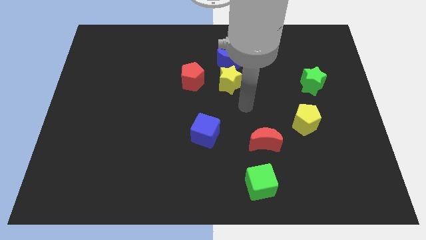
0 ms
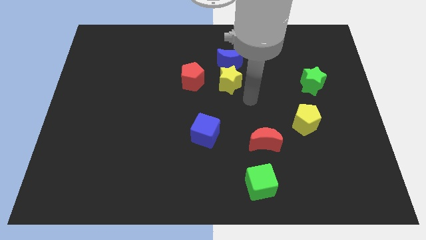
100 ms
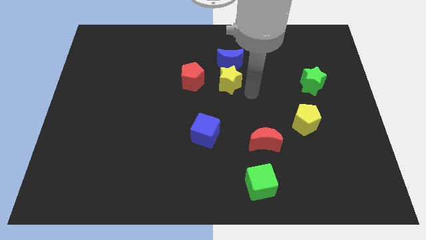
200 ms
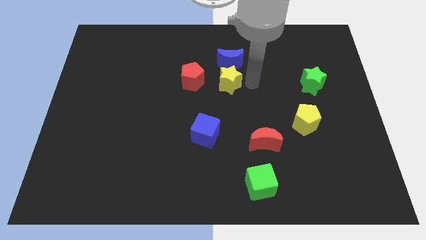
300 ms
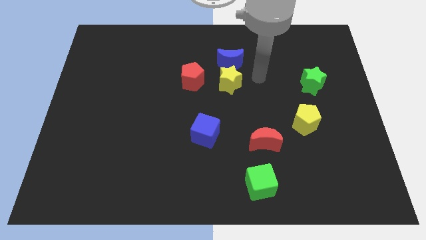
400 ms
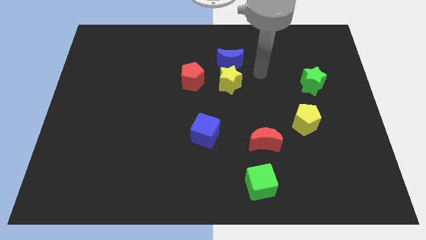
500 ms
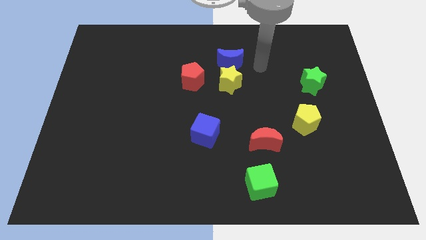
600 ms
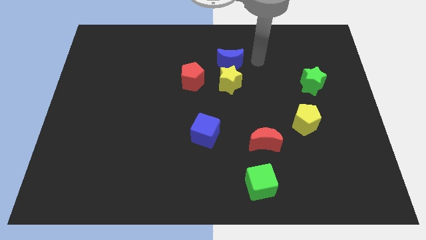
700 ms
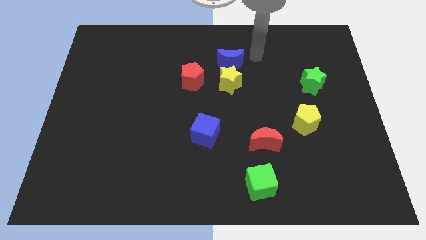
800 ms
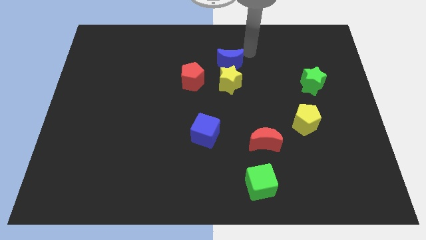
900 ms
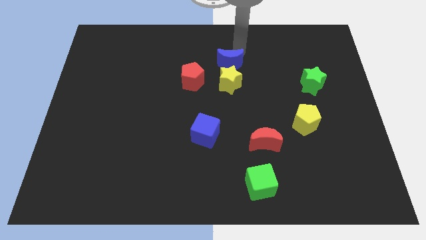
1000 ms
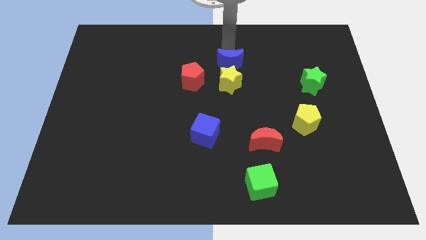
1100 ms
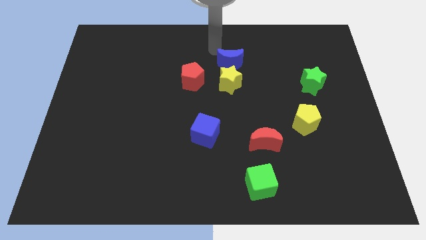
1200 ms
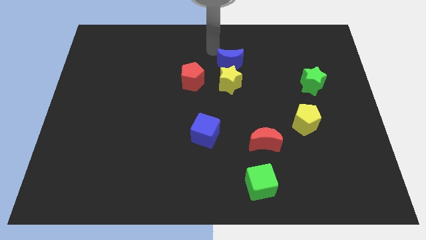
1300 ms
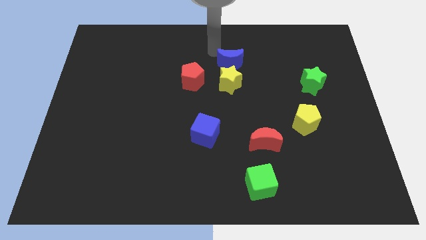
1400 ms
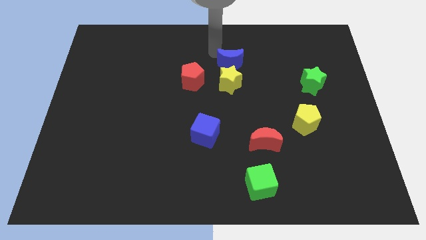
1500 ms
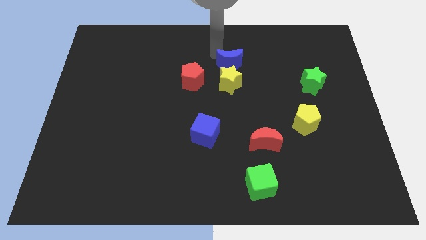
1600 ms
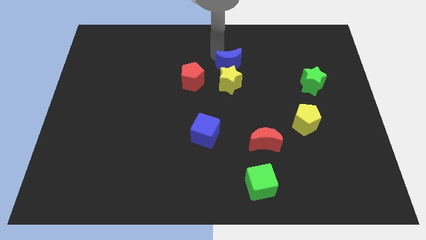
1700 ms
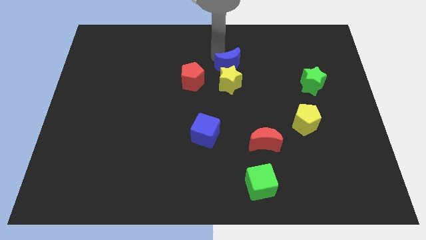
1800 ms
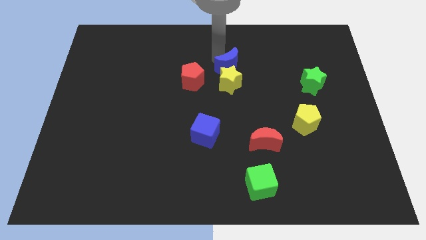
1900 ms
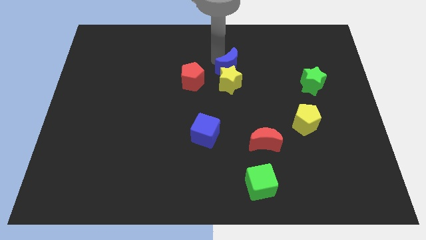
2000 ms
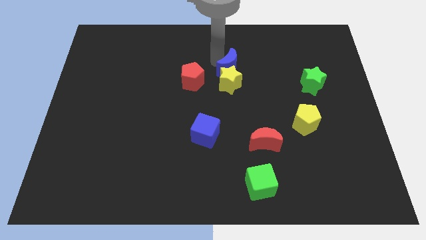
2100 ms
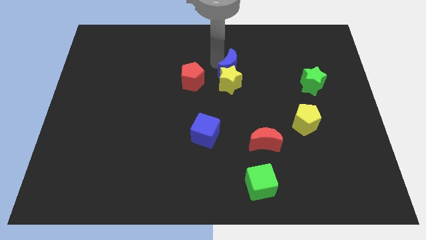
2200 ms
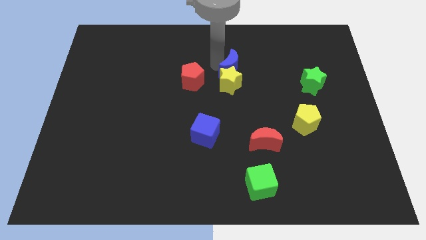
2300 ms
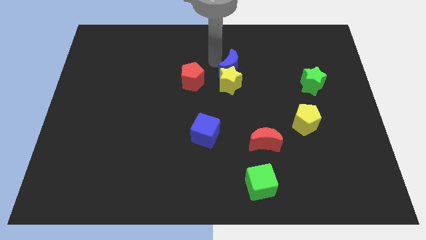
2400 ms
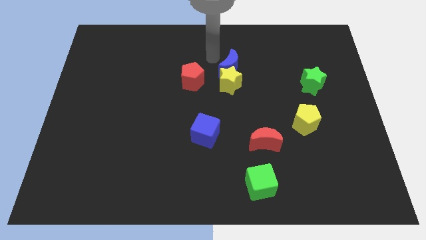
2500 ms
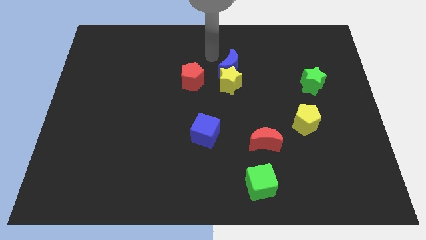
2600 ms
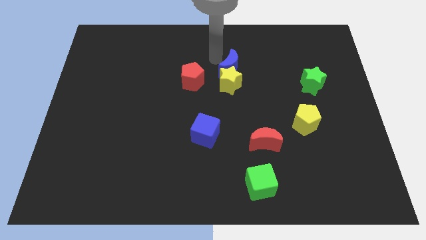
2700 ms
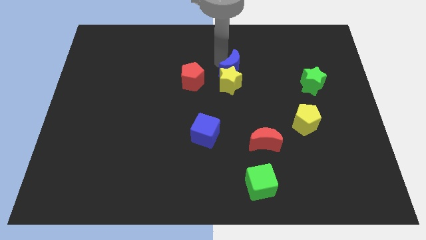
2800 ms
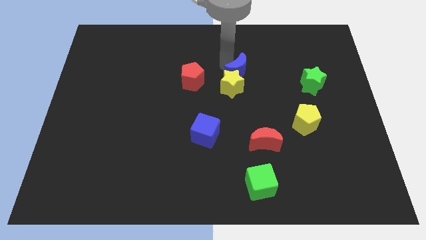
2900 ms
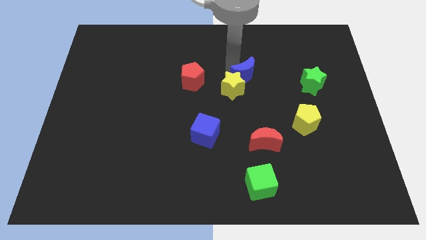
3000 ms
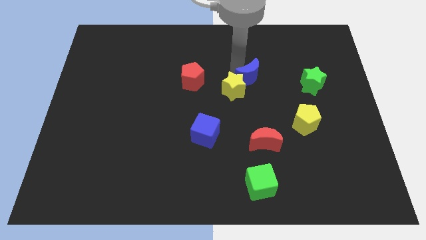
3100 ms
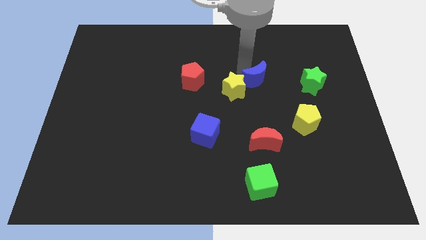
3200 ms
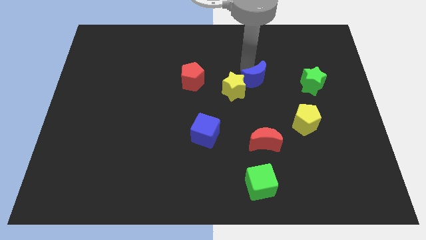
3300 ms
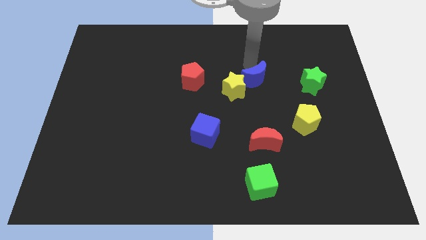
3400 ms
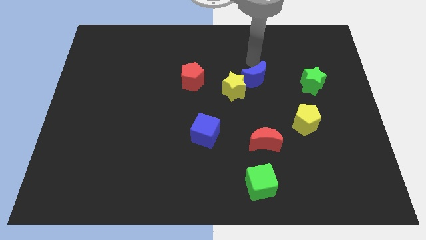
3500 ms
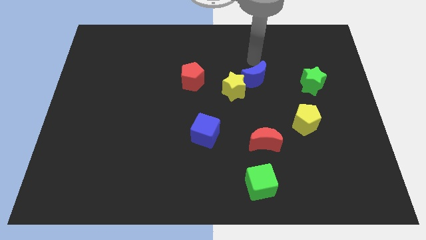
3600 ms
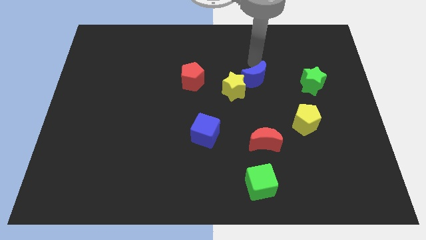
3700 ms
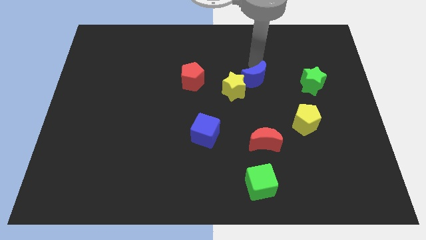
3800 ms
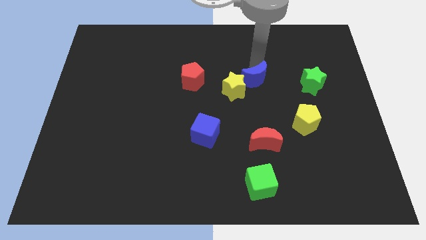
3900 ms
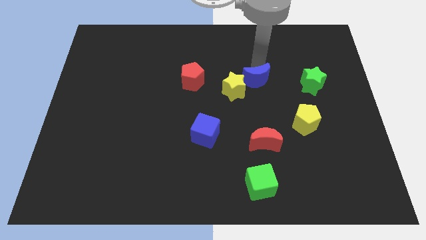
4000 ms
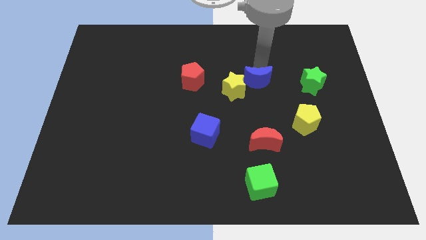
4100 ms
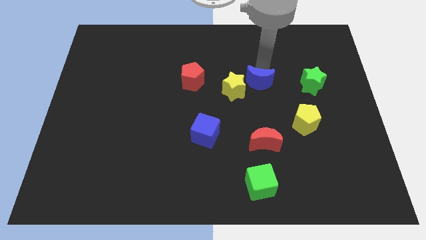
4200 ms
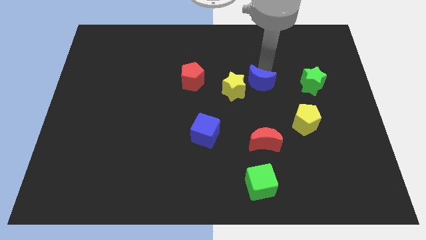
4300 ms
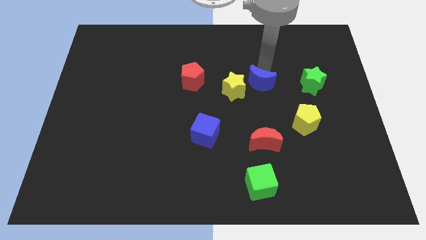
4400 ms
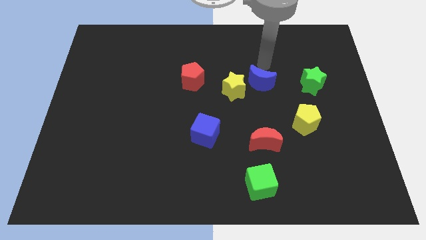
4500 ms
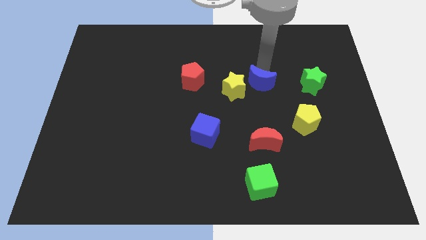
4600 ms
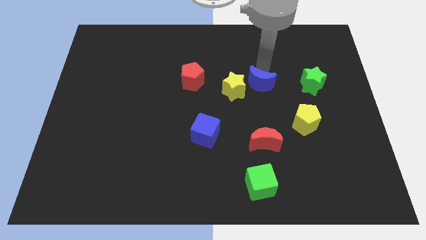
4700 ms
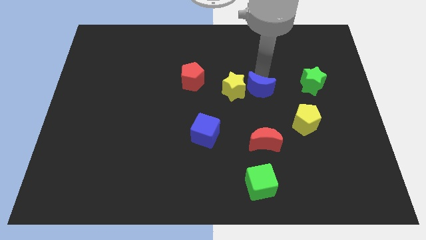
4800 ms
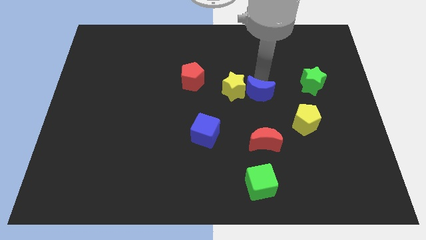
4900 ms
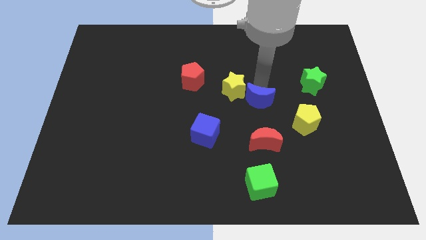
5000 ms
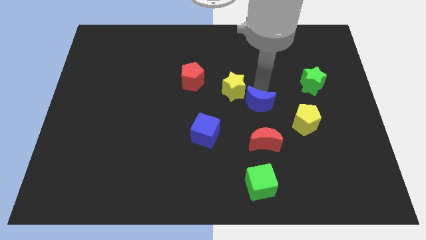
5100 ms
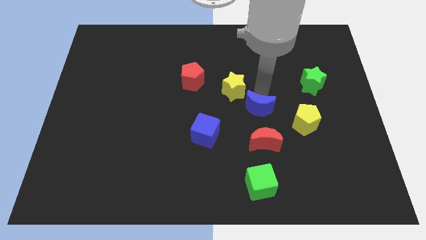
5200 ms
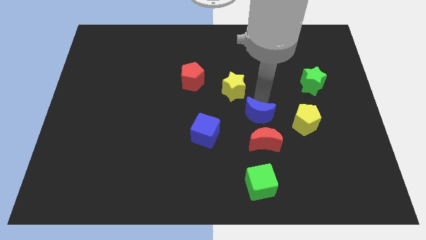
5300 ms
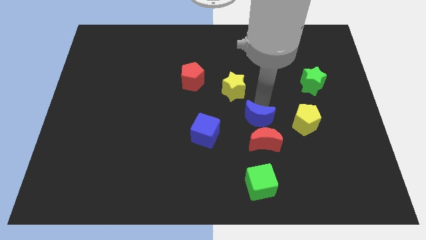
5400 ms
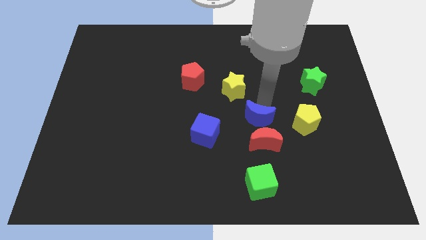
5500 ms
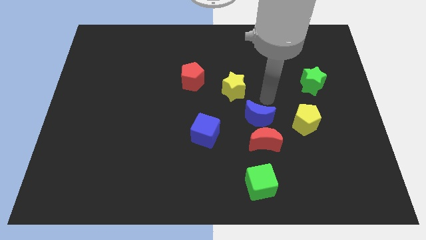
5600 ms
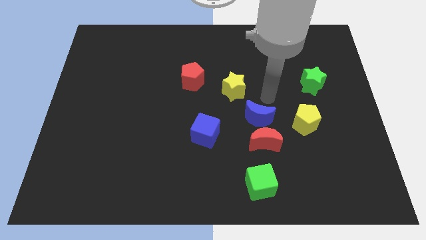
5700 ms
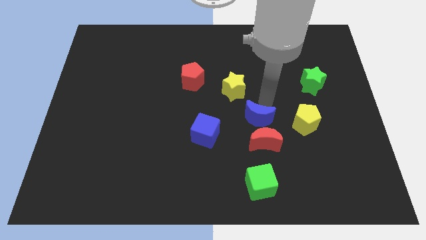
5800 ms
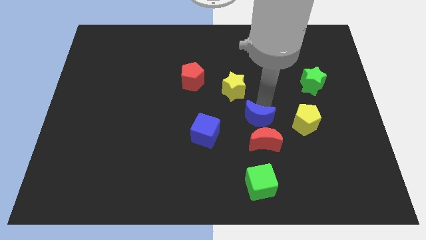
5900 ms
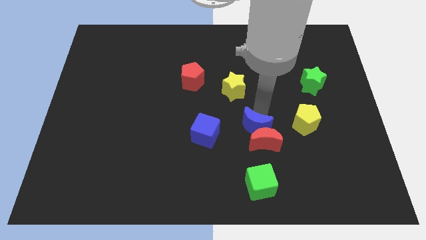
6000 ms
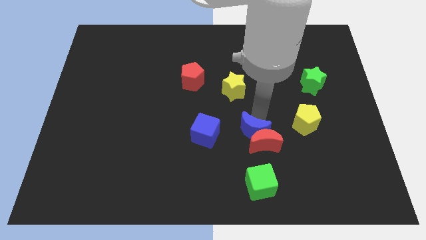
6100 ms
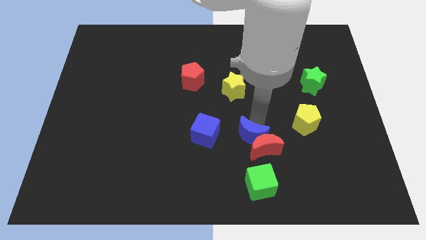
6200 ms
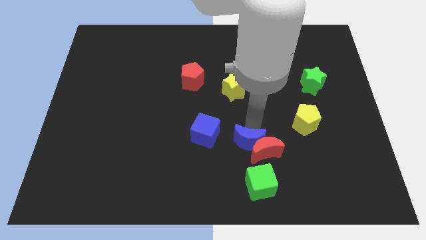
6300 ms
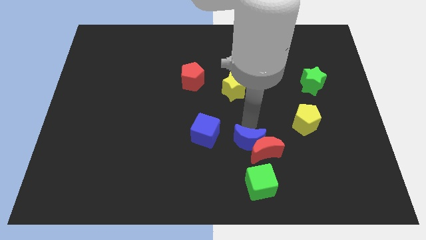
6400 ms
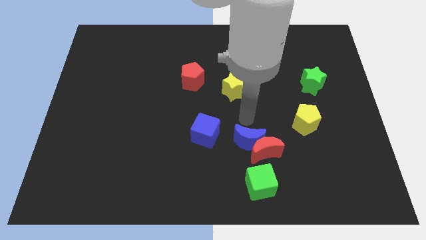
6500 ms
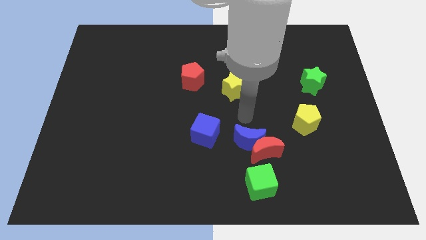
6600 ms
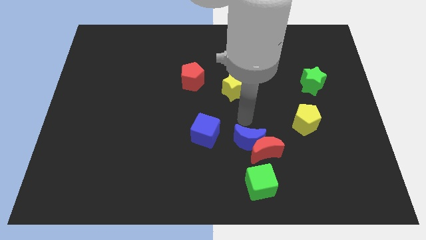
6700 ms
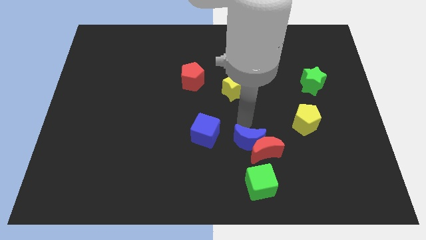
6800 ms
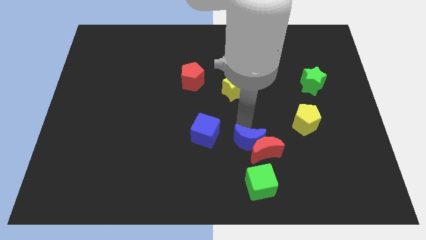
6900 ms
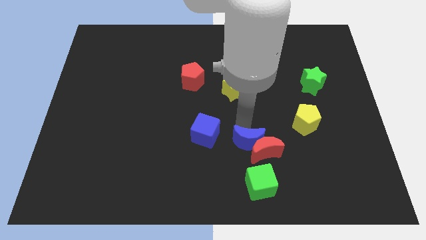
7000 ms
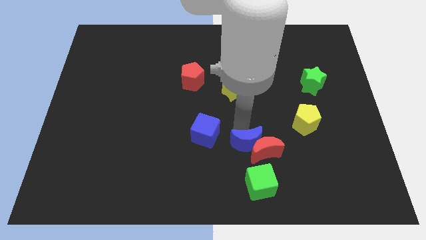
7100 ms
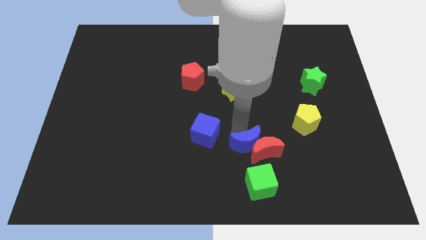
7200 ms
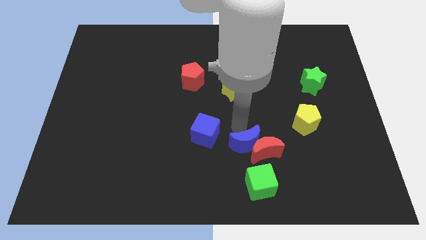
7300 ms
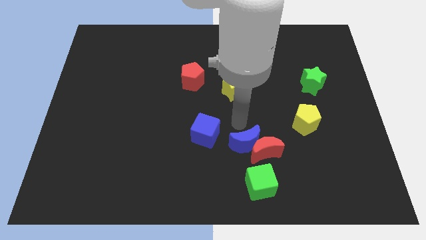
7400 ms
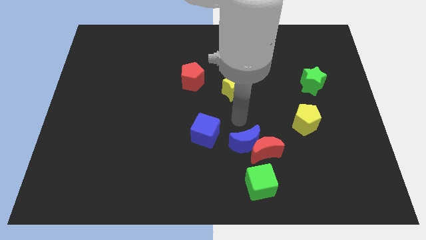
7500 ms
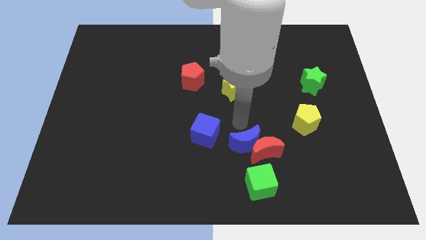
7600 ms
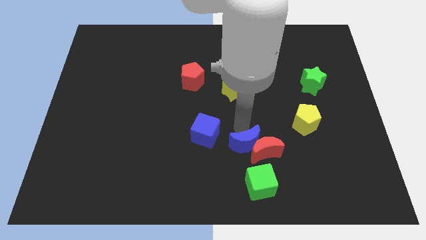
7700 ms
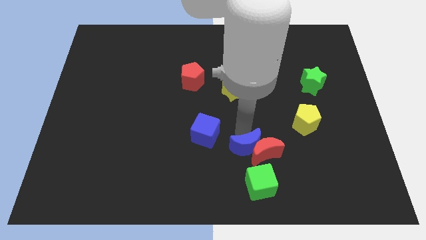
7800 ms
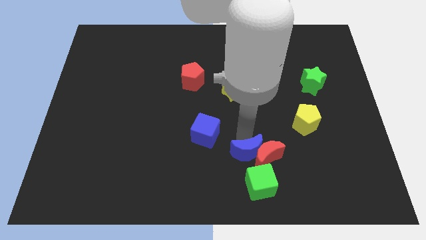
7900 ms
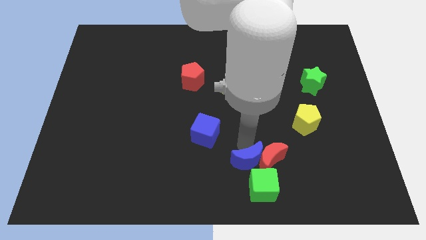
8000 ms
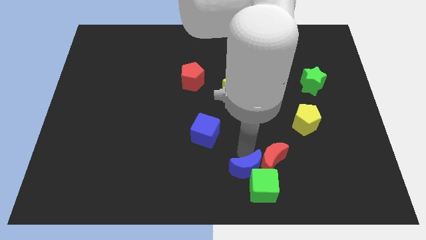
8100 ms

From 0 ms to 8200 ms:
push the blue moon to the green cube
